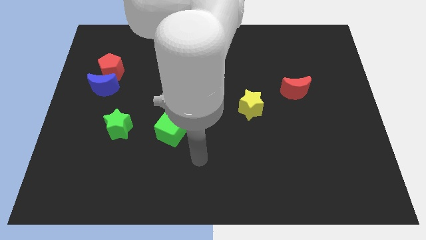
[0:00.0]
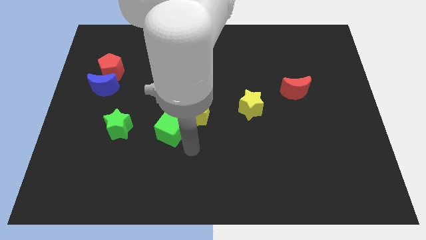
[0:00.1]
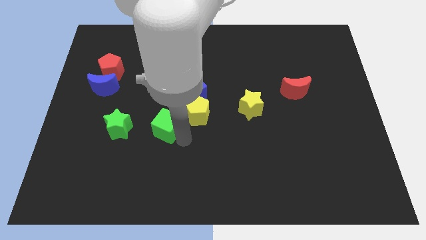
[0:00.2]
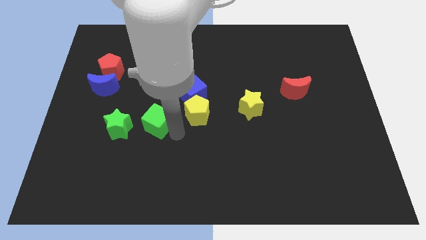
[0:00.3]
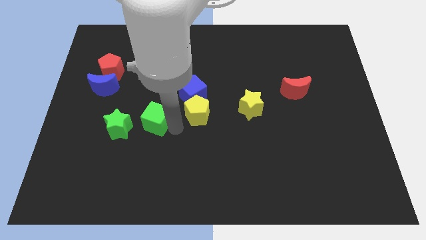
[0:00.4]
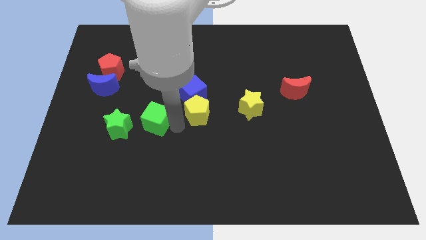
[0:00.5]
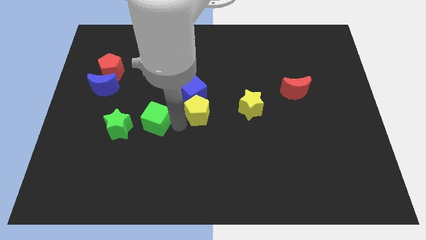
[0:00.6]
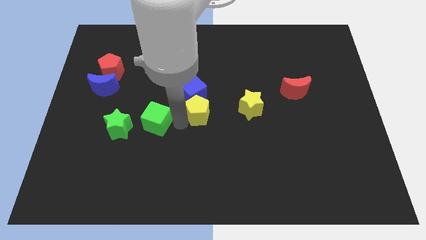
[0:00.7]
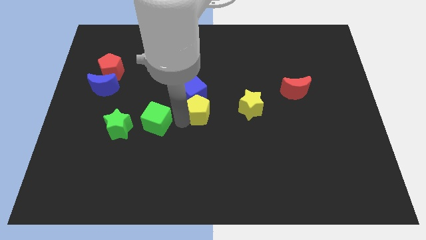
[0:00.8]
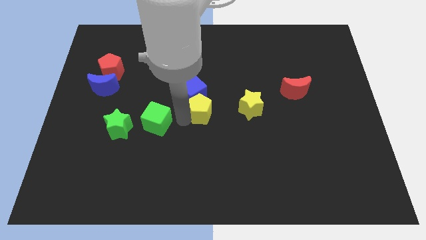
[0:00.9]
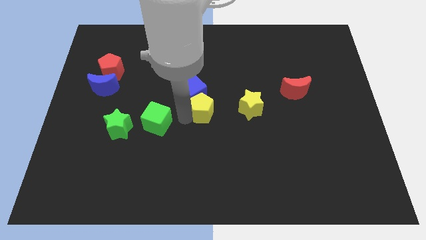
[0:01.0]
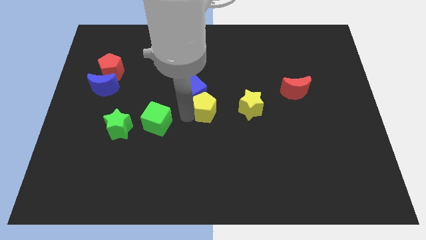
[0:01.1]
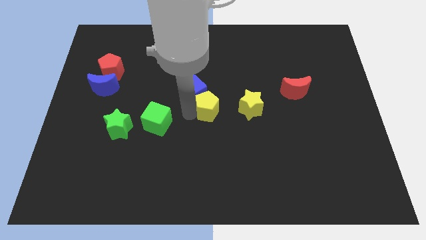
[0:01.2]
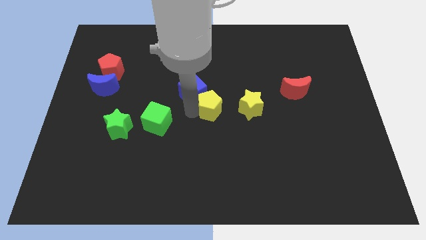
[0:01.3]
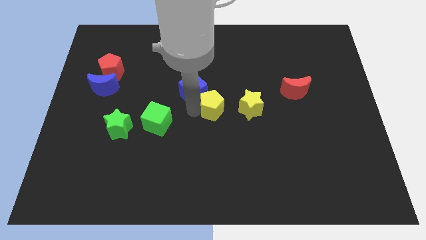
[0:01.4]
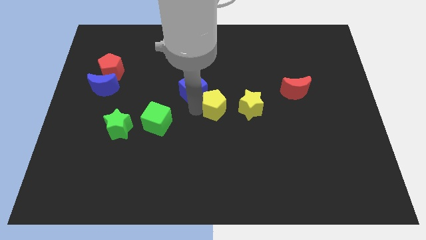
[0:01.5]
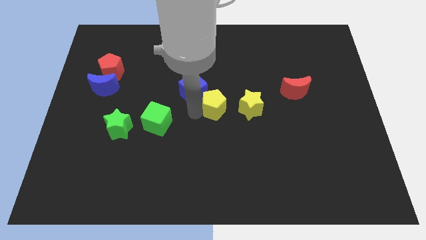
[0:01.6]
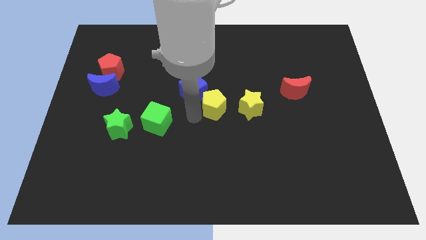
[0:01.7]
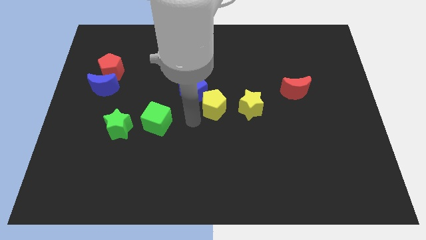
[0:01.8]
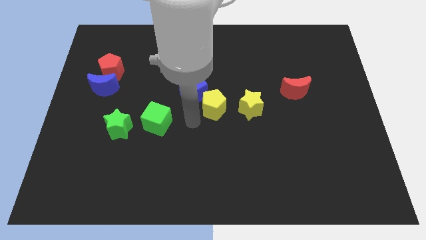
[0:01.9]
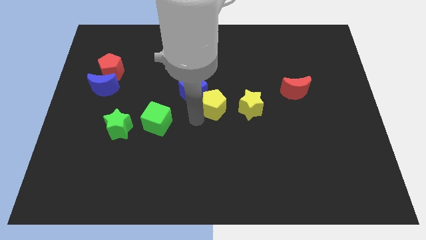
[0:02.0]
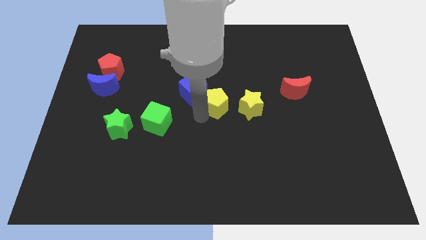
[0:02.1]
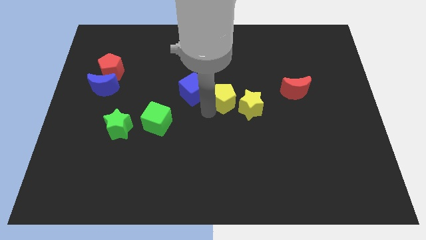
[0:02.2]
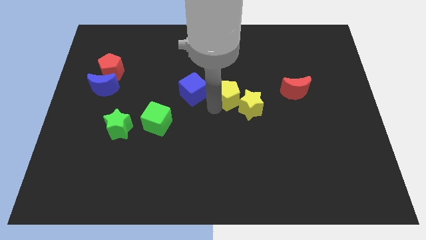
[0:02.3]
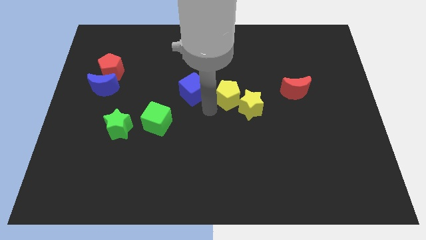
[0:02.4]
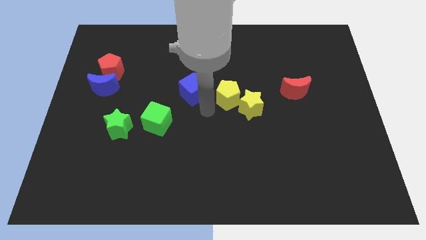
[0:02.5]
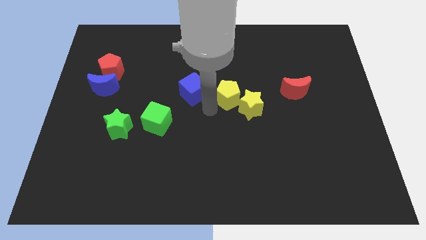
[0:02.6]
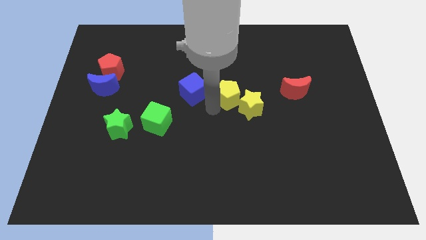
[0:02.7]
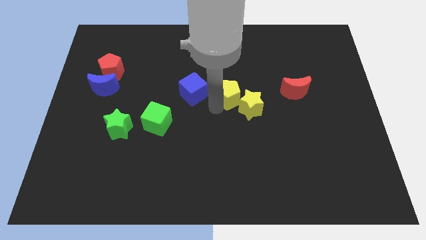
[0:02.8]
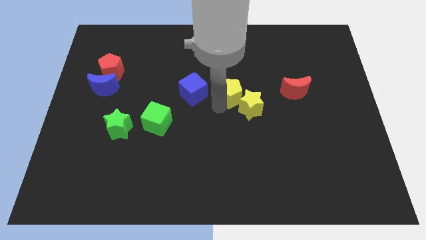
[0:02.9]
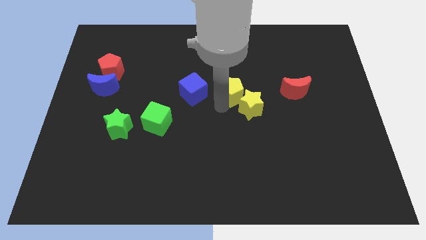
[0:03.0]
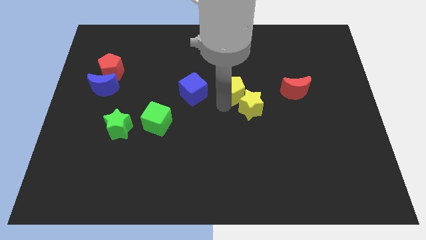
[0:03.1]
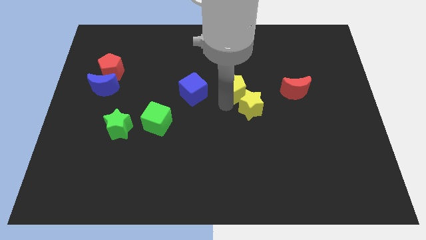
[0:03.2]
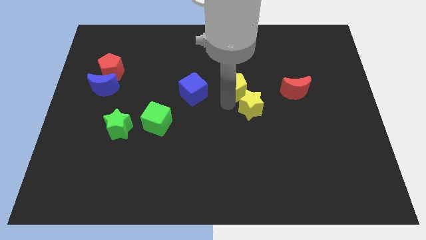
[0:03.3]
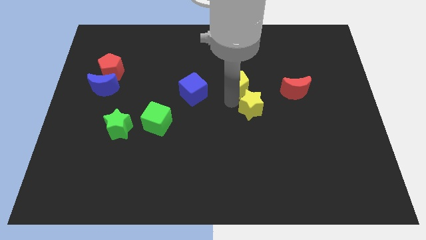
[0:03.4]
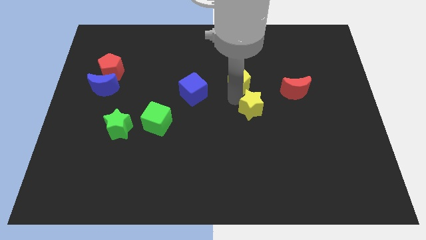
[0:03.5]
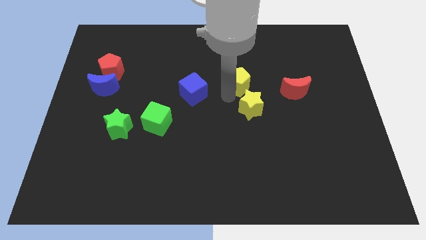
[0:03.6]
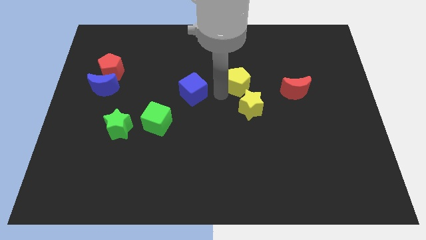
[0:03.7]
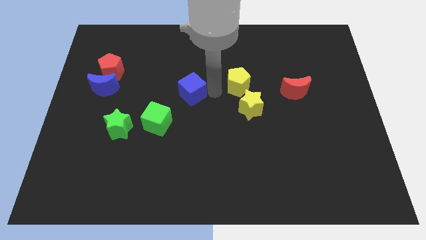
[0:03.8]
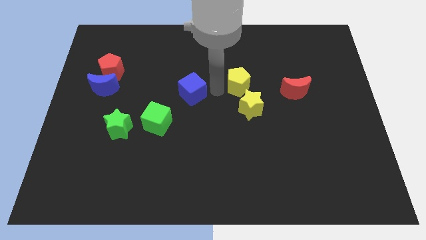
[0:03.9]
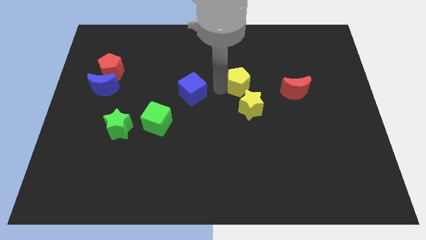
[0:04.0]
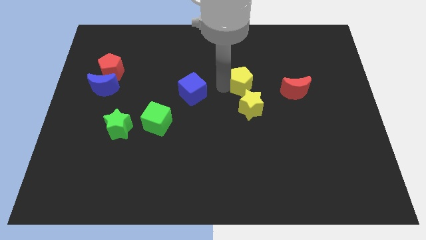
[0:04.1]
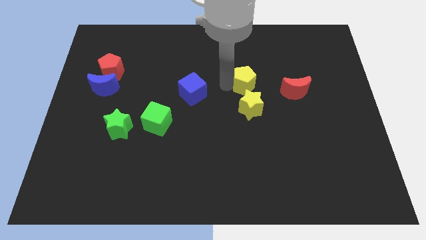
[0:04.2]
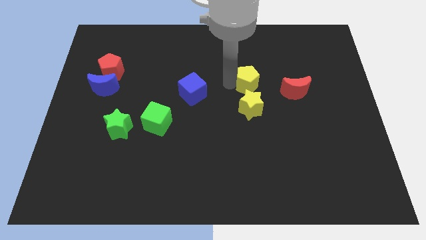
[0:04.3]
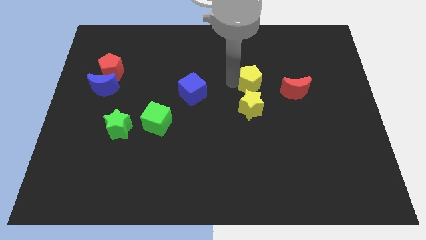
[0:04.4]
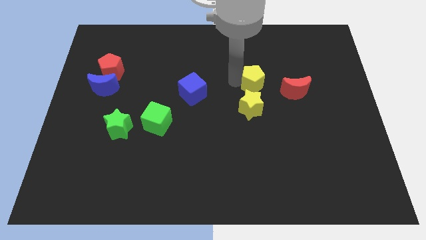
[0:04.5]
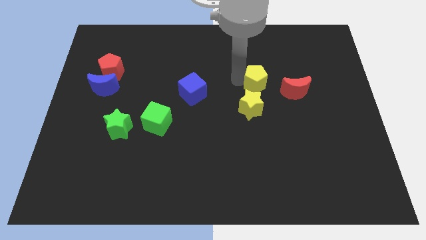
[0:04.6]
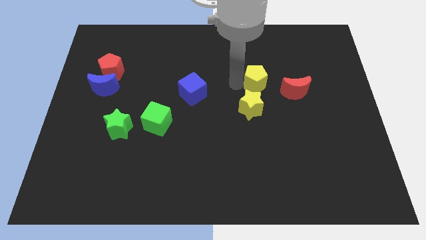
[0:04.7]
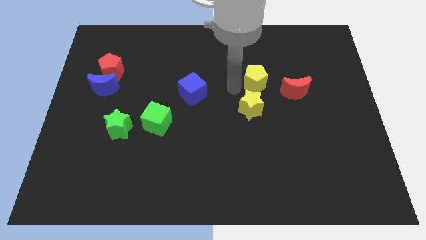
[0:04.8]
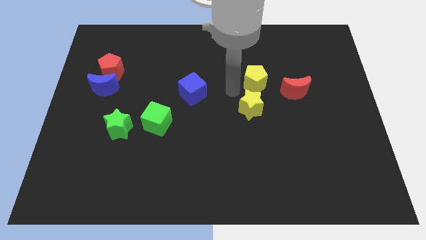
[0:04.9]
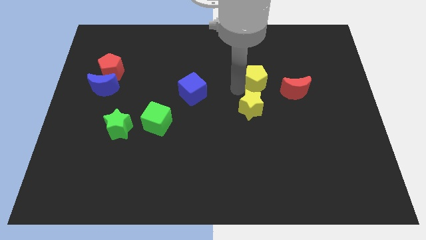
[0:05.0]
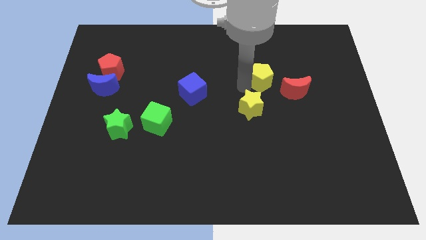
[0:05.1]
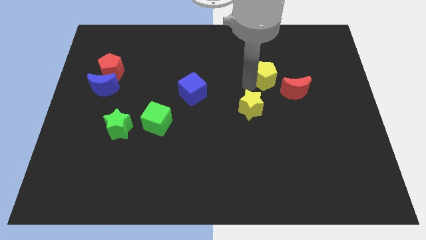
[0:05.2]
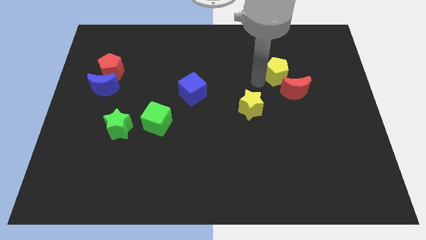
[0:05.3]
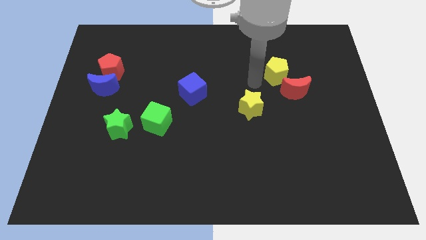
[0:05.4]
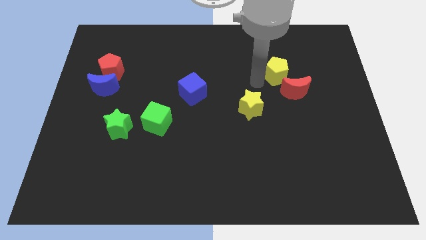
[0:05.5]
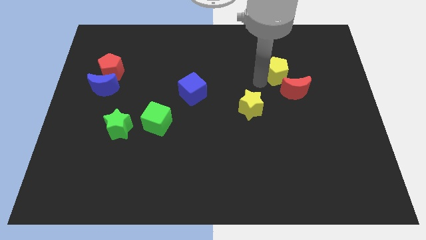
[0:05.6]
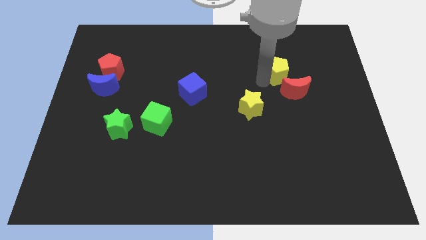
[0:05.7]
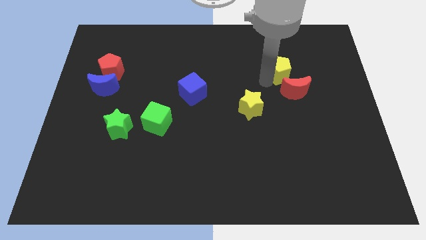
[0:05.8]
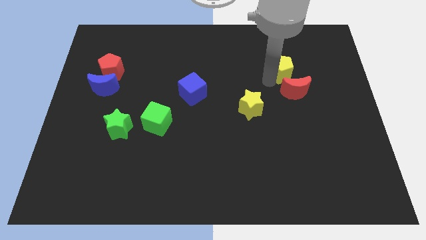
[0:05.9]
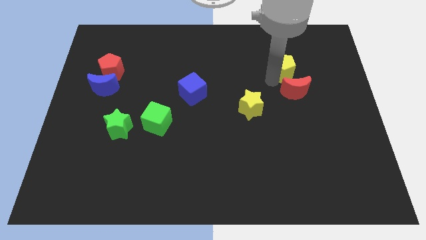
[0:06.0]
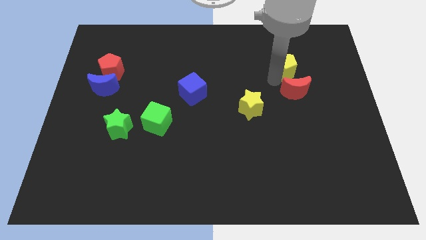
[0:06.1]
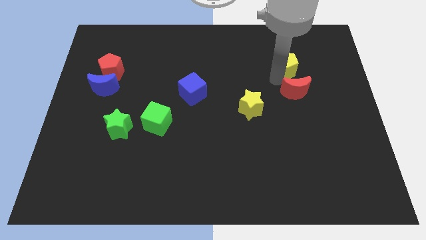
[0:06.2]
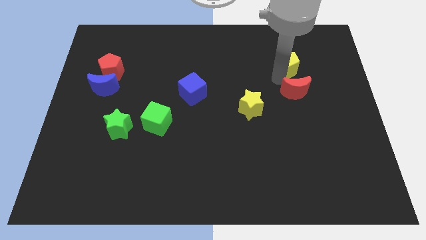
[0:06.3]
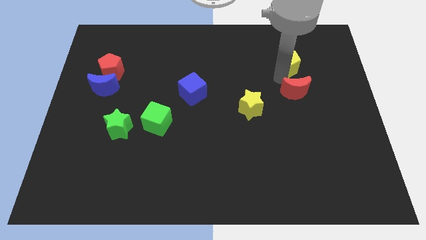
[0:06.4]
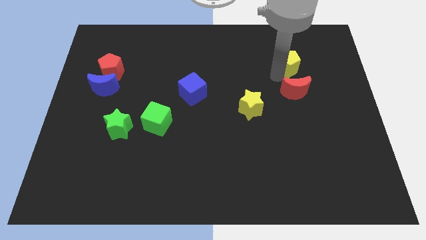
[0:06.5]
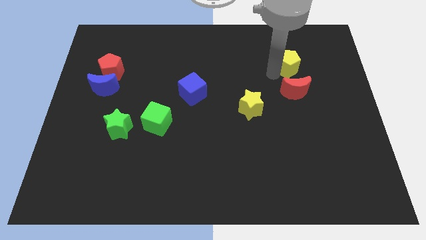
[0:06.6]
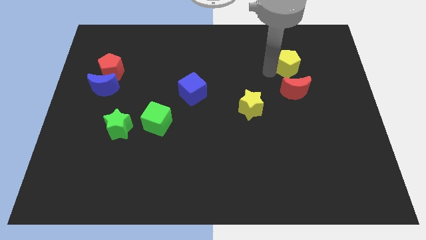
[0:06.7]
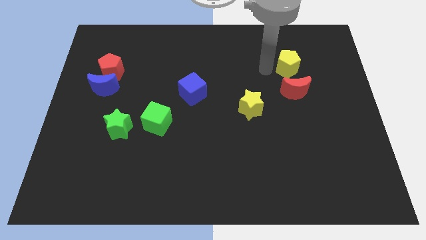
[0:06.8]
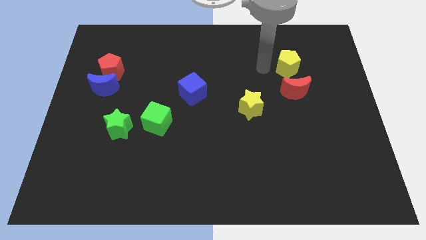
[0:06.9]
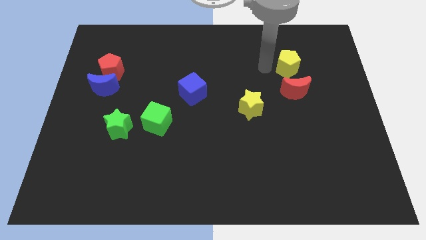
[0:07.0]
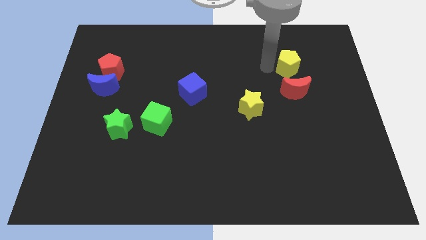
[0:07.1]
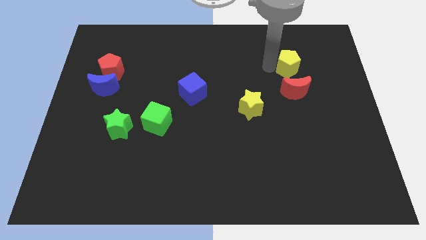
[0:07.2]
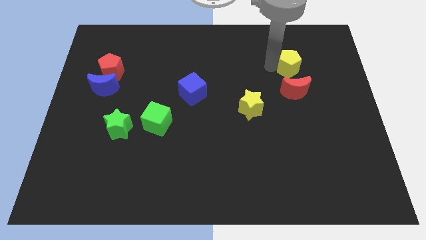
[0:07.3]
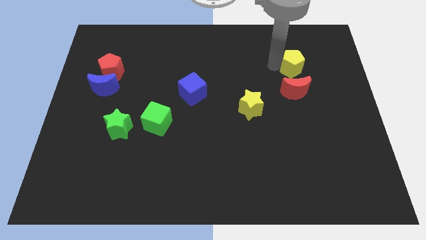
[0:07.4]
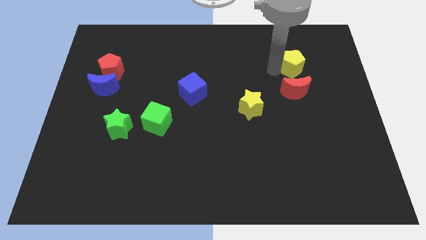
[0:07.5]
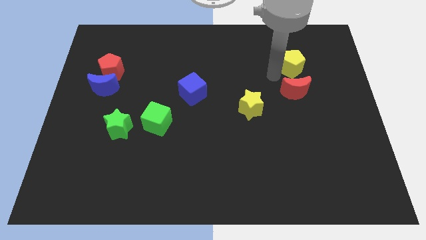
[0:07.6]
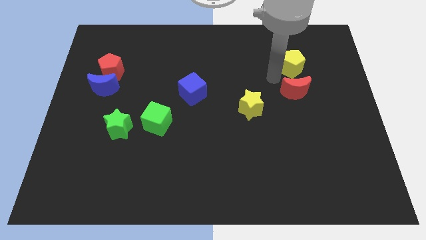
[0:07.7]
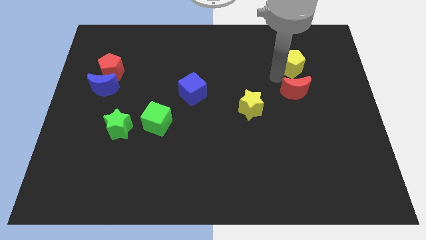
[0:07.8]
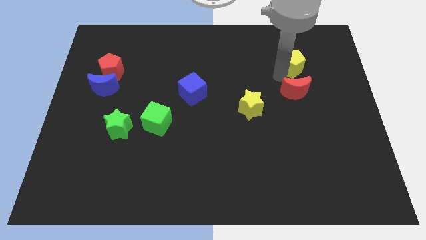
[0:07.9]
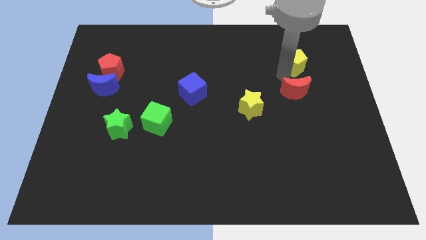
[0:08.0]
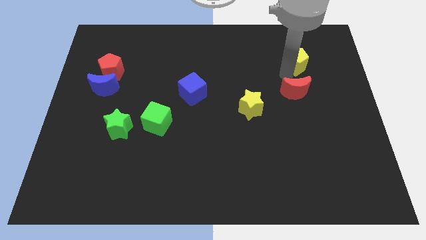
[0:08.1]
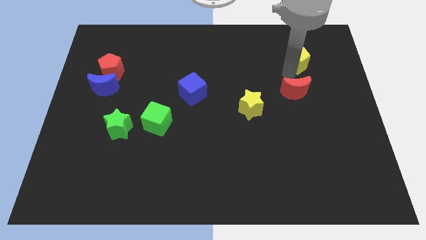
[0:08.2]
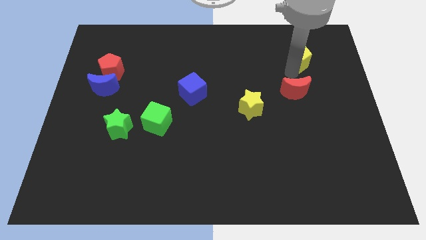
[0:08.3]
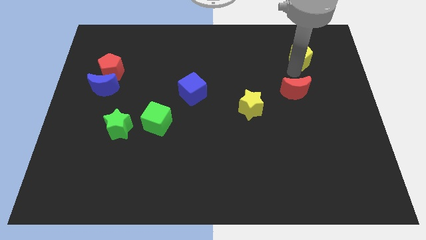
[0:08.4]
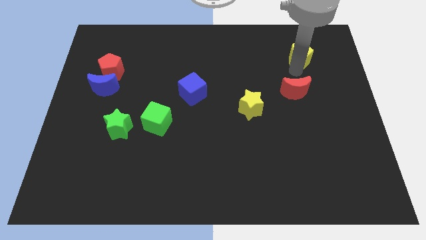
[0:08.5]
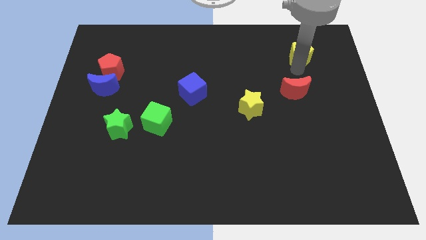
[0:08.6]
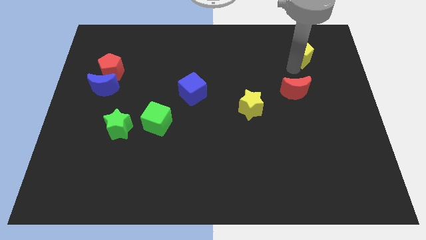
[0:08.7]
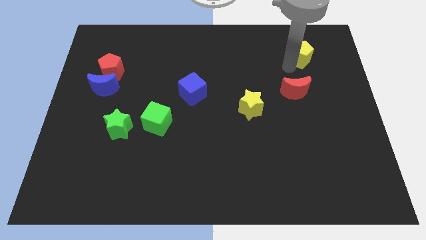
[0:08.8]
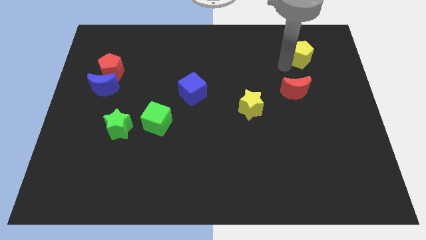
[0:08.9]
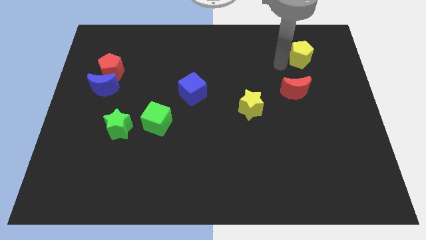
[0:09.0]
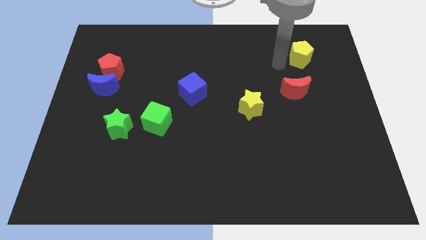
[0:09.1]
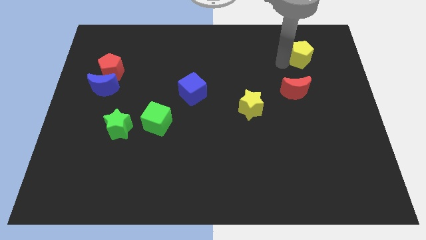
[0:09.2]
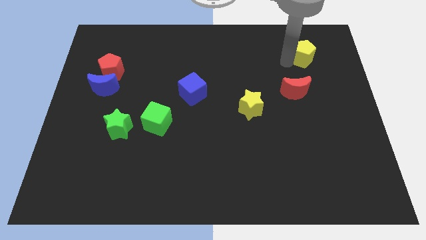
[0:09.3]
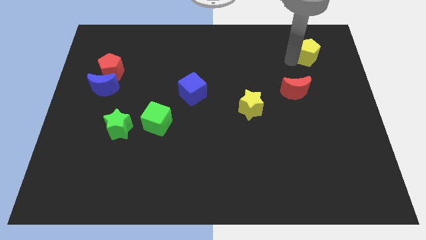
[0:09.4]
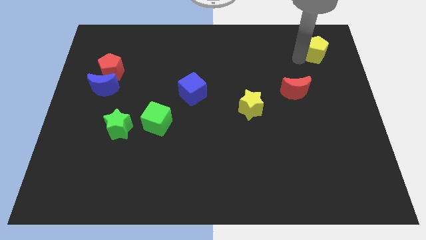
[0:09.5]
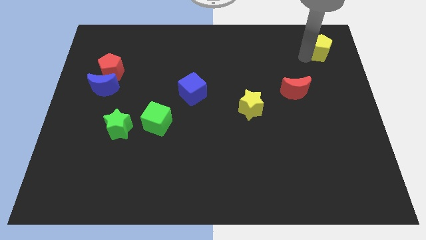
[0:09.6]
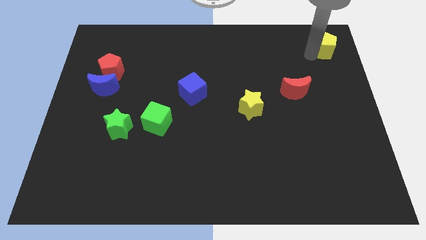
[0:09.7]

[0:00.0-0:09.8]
move the yellow pentagon to the top right of the board
